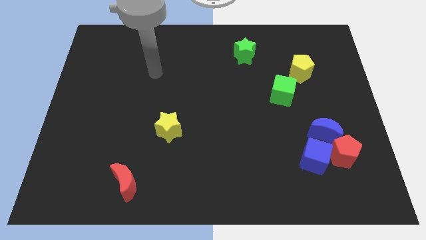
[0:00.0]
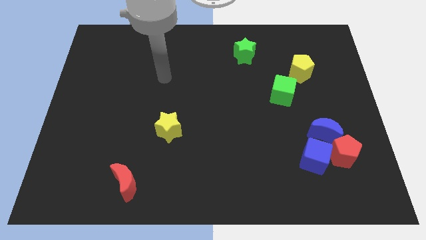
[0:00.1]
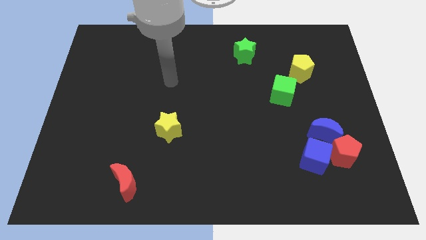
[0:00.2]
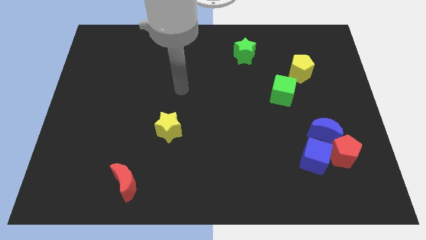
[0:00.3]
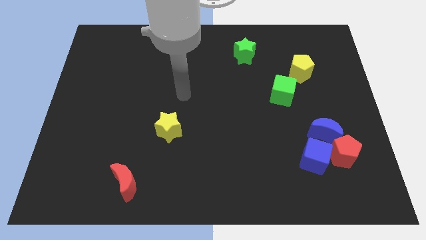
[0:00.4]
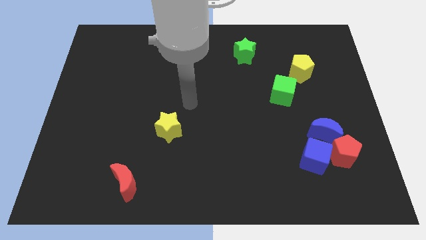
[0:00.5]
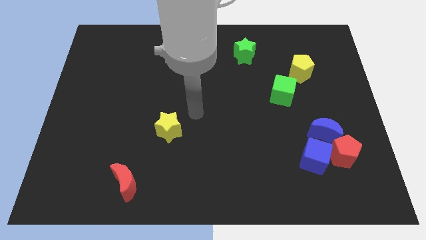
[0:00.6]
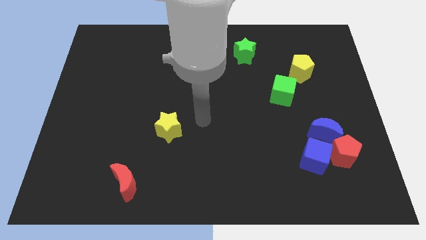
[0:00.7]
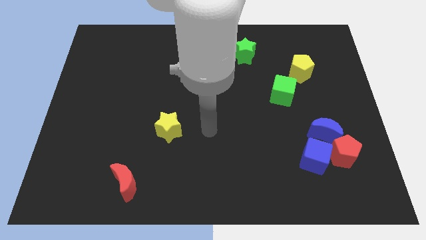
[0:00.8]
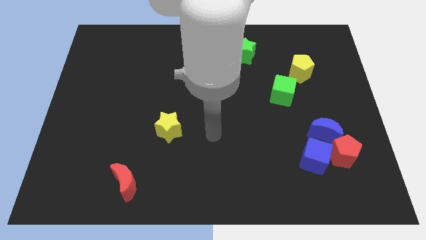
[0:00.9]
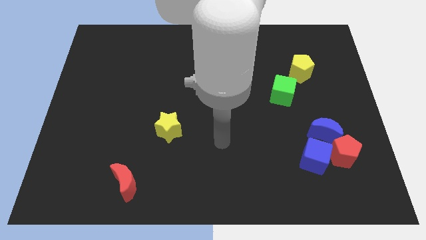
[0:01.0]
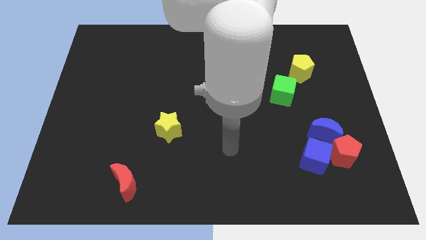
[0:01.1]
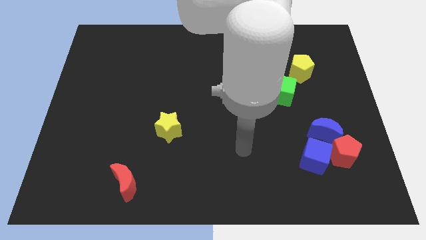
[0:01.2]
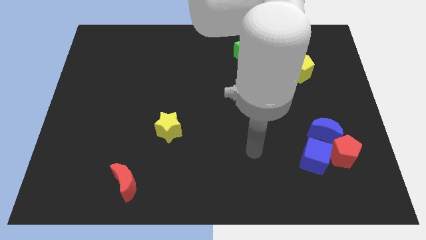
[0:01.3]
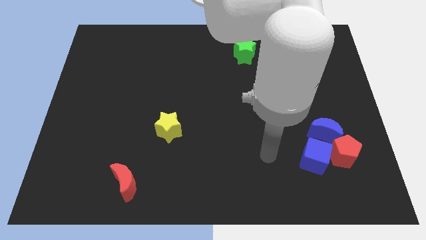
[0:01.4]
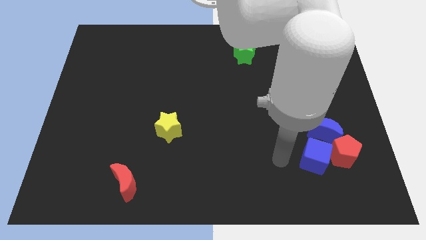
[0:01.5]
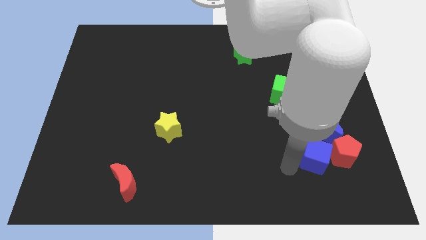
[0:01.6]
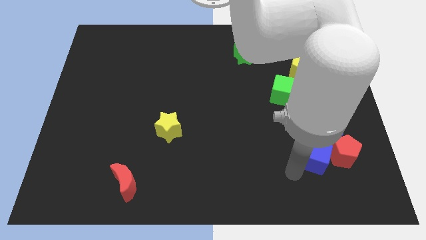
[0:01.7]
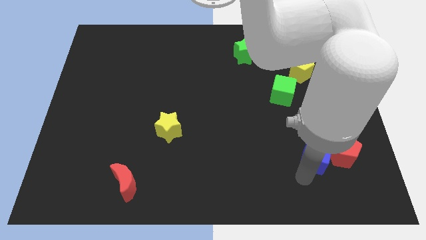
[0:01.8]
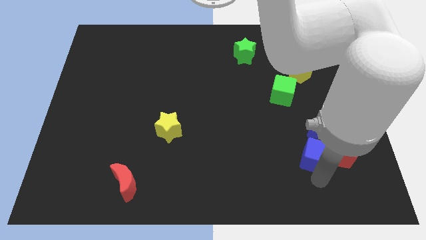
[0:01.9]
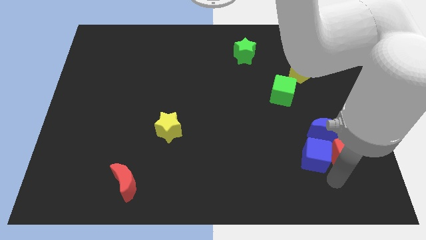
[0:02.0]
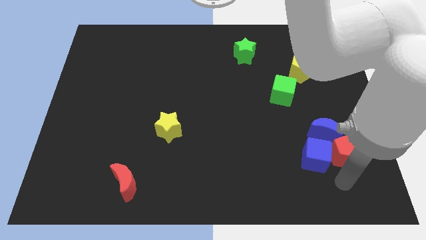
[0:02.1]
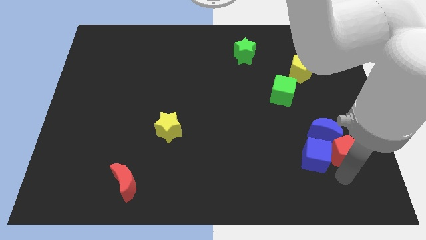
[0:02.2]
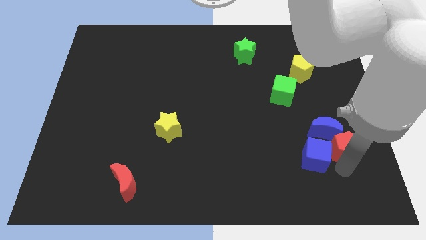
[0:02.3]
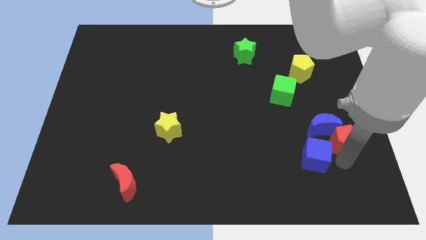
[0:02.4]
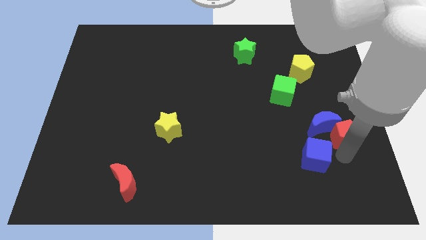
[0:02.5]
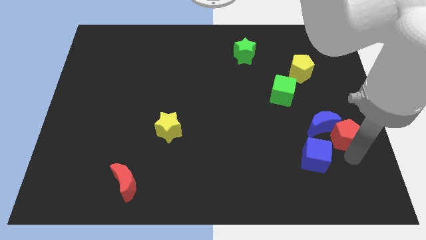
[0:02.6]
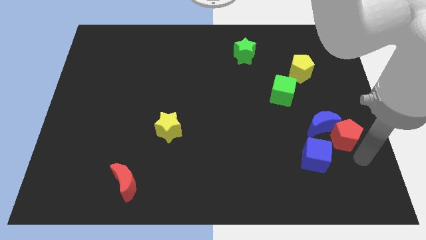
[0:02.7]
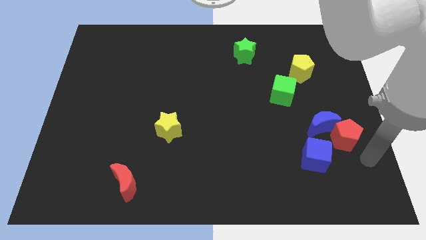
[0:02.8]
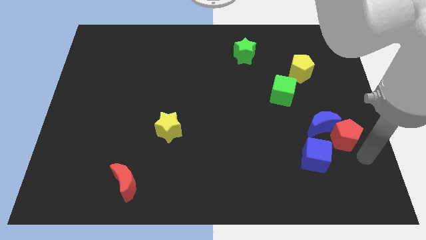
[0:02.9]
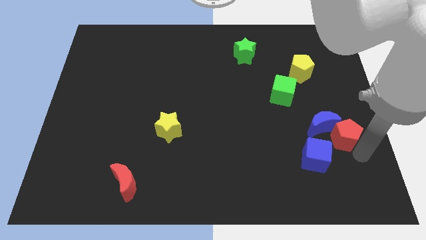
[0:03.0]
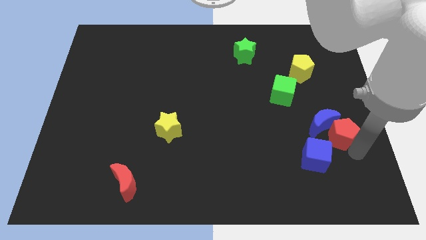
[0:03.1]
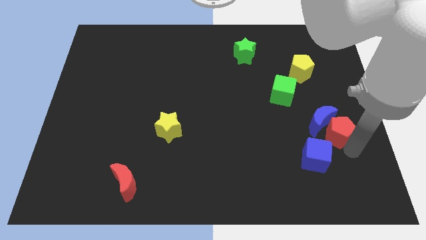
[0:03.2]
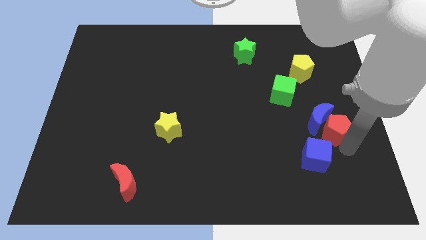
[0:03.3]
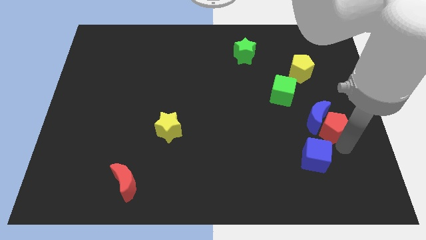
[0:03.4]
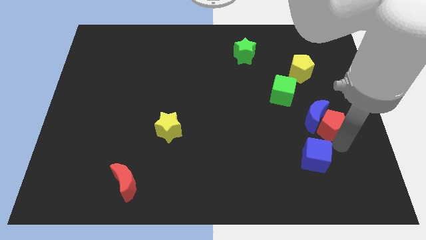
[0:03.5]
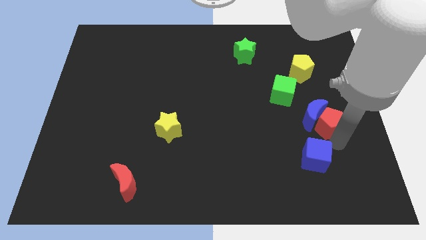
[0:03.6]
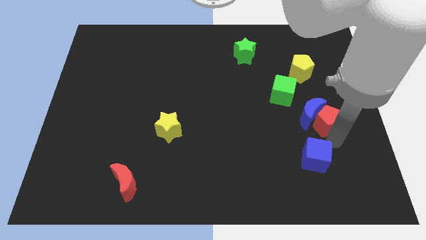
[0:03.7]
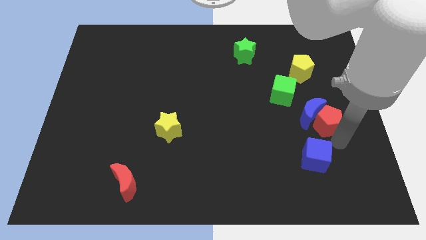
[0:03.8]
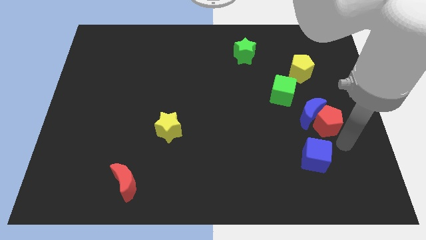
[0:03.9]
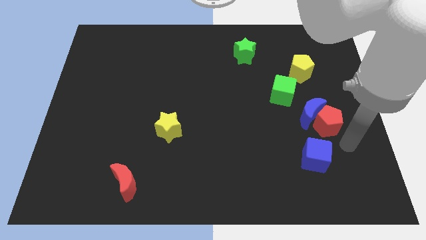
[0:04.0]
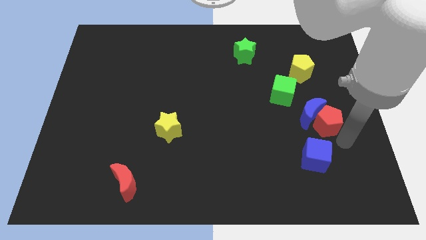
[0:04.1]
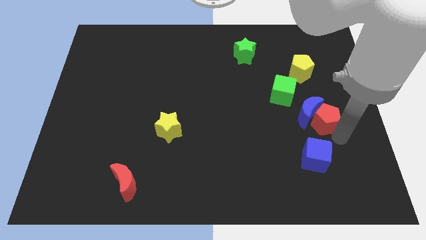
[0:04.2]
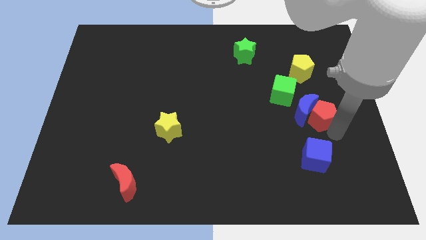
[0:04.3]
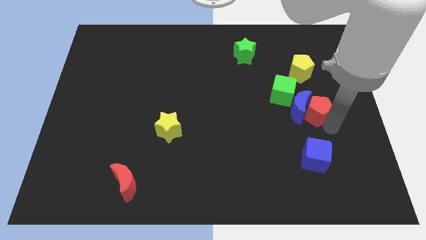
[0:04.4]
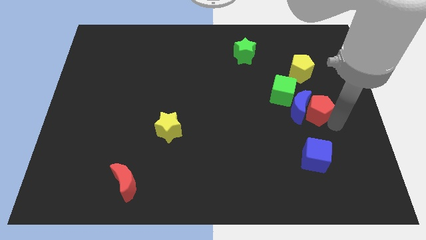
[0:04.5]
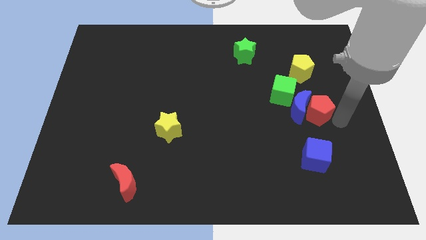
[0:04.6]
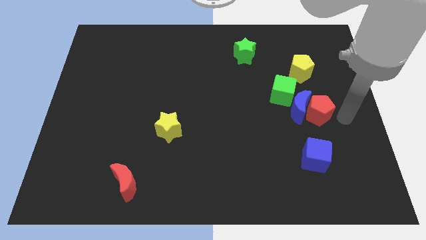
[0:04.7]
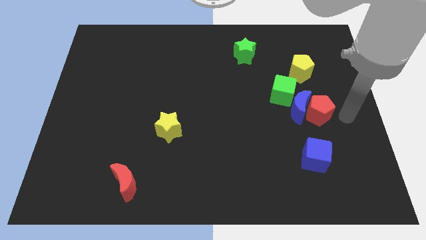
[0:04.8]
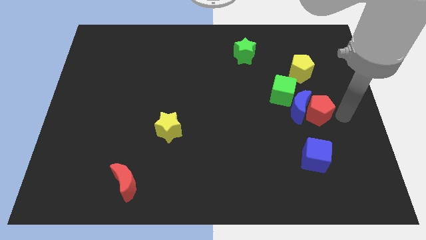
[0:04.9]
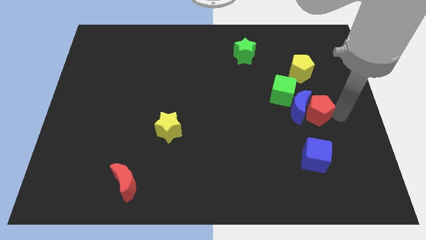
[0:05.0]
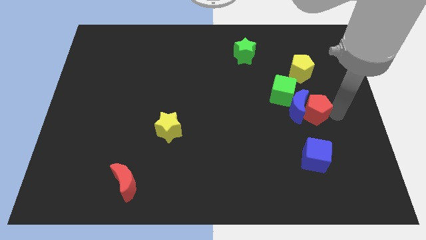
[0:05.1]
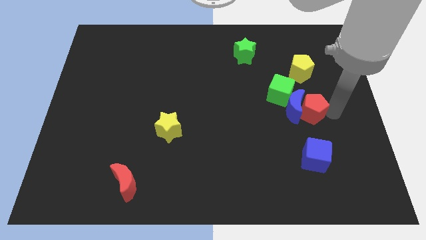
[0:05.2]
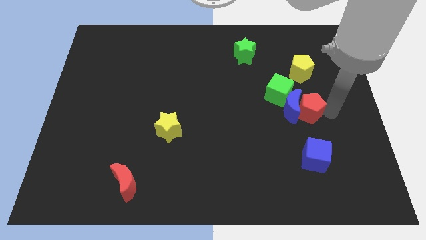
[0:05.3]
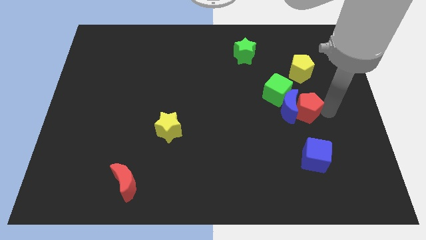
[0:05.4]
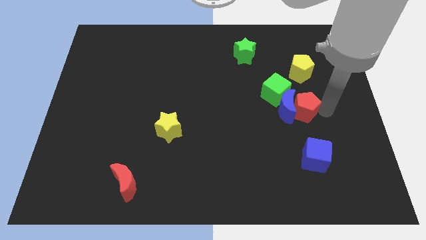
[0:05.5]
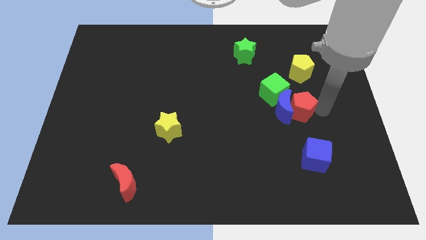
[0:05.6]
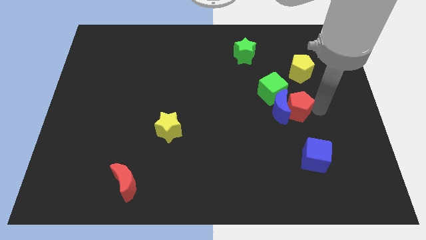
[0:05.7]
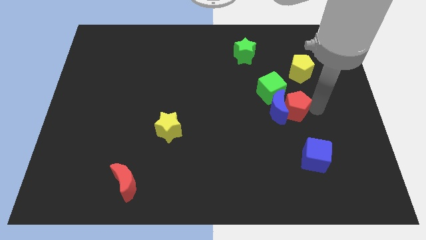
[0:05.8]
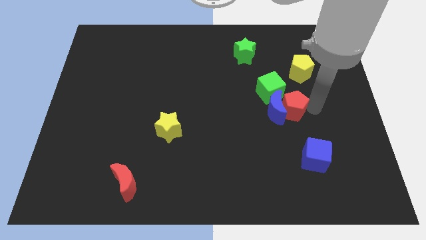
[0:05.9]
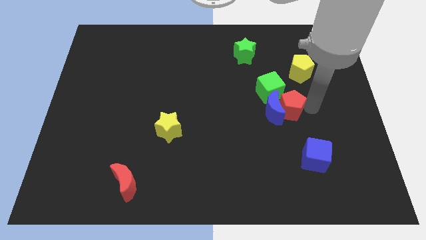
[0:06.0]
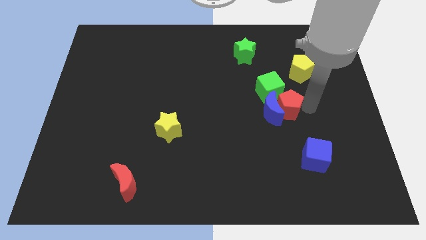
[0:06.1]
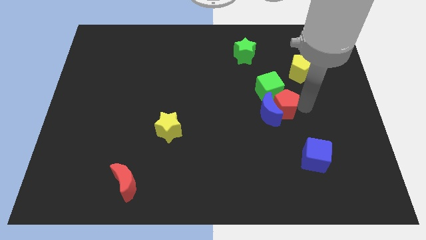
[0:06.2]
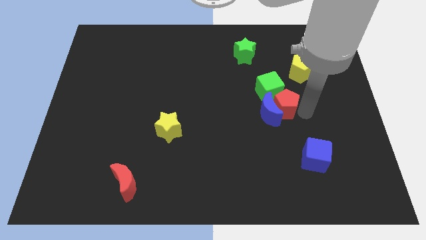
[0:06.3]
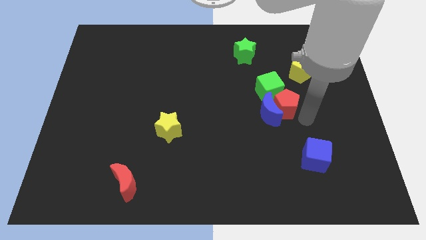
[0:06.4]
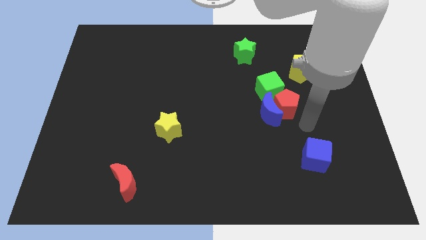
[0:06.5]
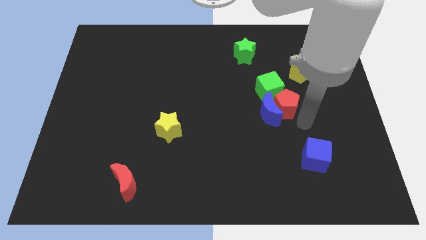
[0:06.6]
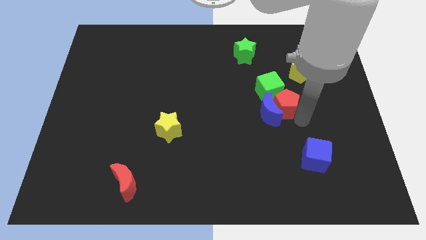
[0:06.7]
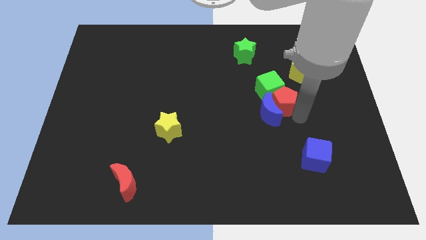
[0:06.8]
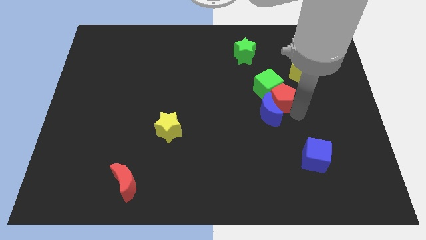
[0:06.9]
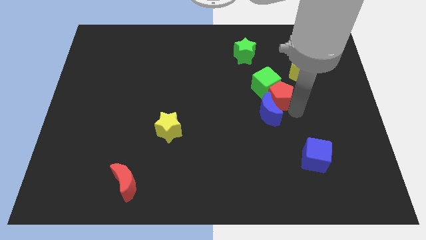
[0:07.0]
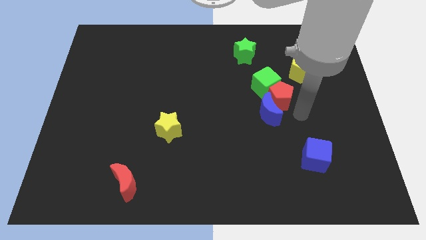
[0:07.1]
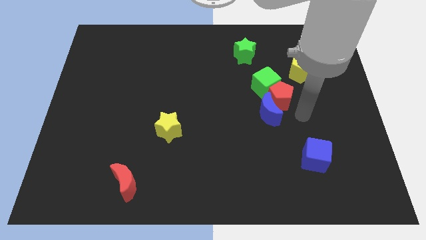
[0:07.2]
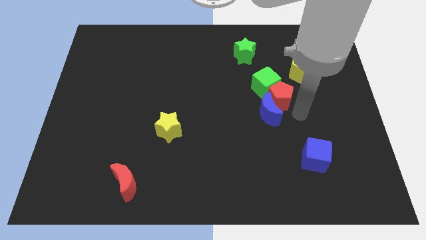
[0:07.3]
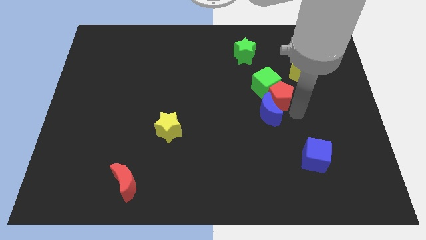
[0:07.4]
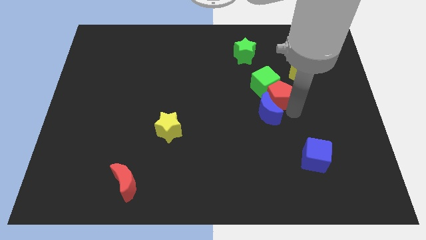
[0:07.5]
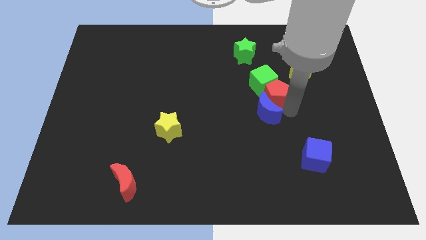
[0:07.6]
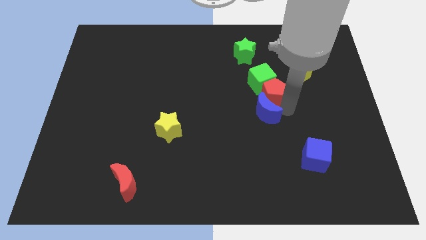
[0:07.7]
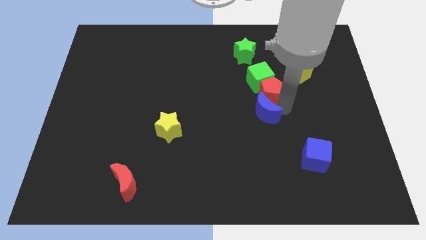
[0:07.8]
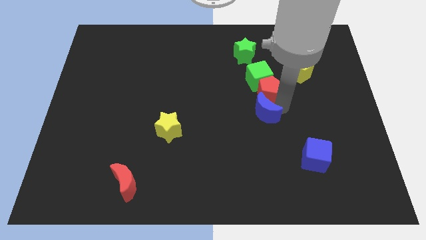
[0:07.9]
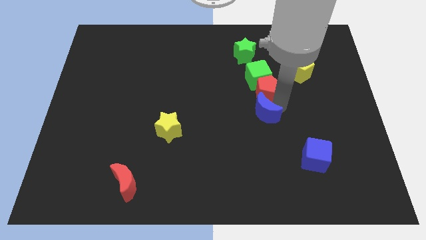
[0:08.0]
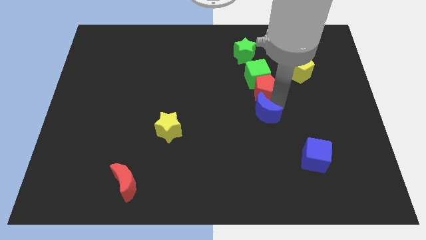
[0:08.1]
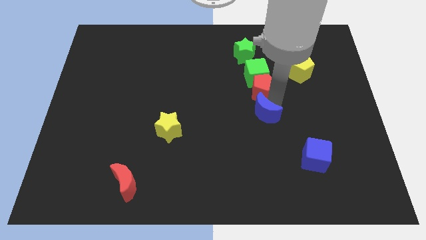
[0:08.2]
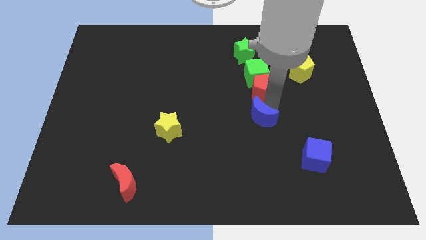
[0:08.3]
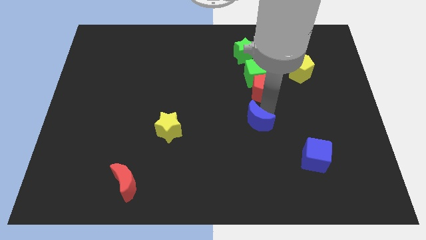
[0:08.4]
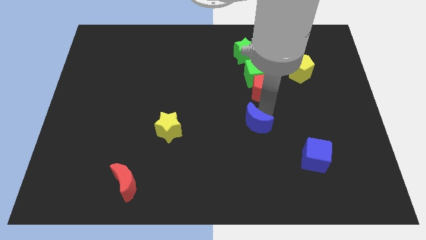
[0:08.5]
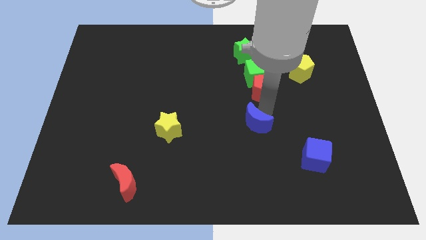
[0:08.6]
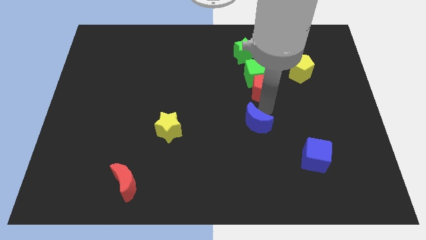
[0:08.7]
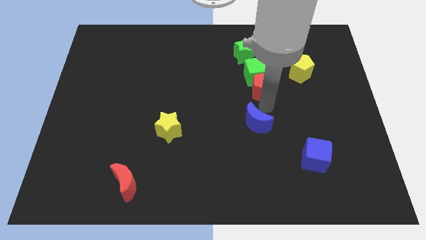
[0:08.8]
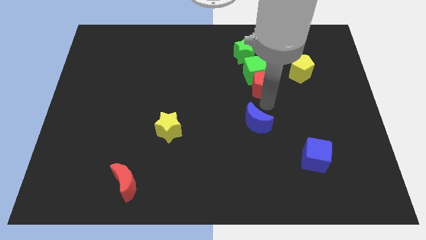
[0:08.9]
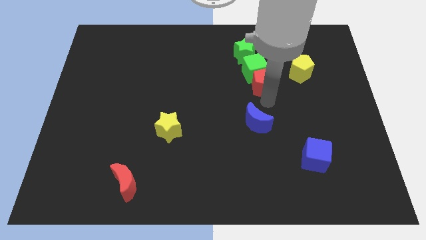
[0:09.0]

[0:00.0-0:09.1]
move the red pentagon to the left side of the yellow pentagon
